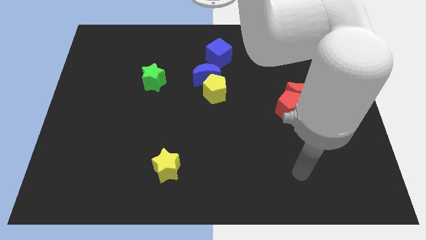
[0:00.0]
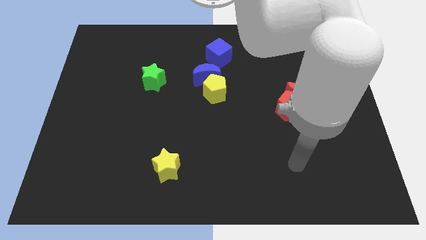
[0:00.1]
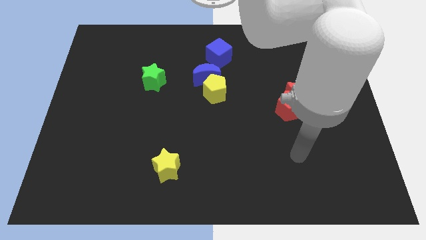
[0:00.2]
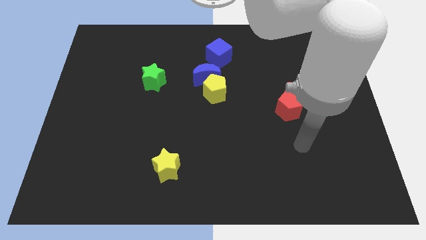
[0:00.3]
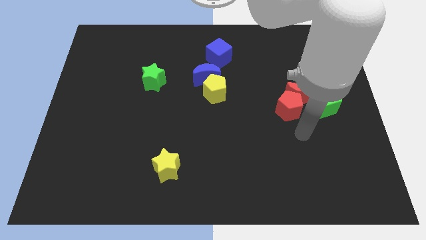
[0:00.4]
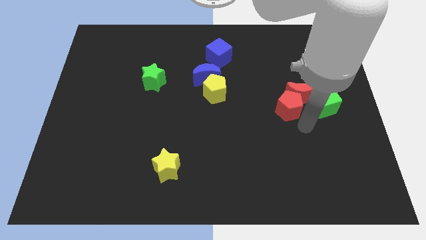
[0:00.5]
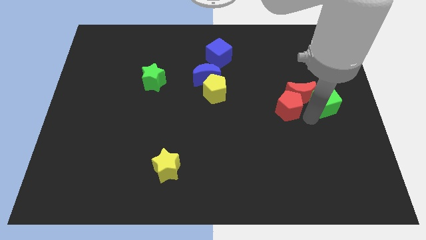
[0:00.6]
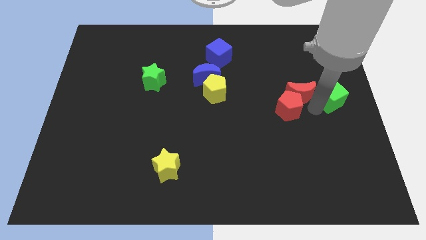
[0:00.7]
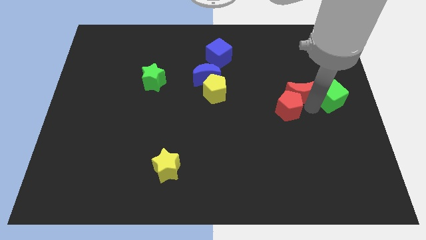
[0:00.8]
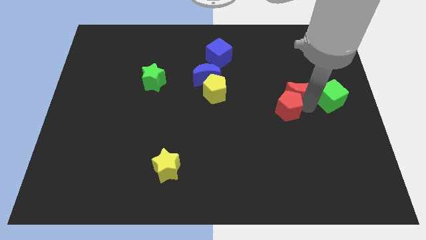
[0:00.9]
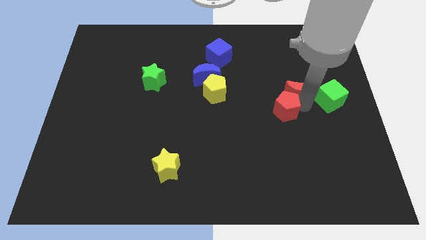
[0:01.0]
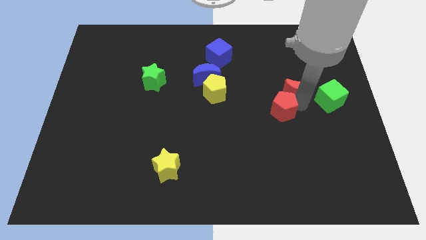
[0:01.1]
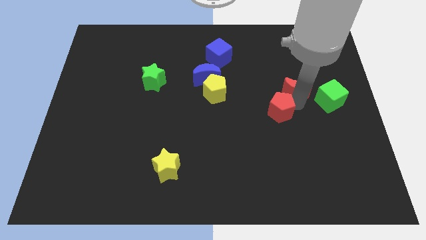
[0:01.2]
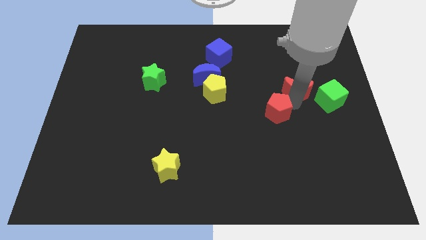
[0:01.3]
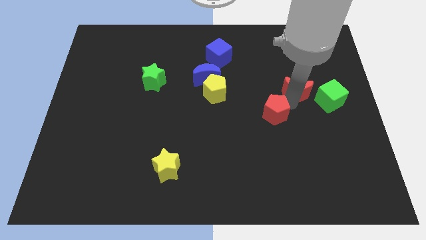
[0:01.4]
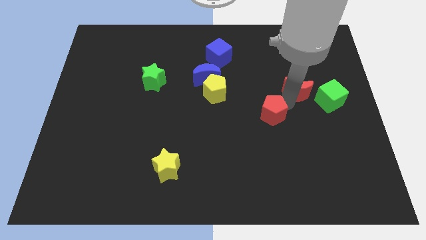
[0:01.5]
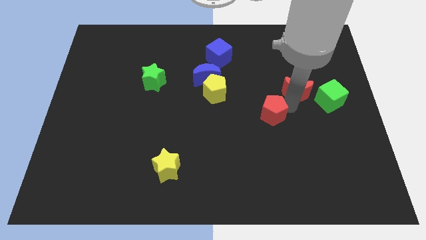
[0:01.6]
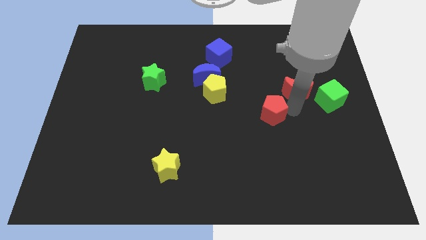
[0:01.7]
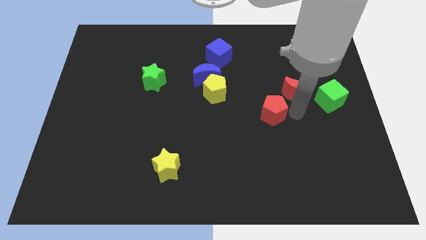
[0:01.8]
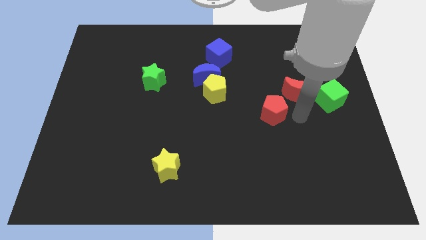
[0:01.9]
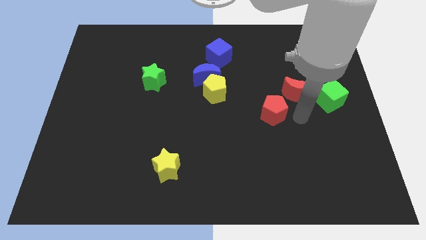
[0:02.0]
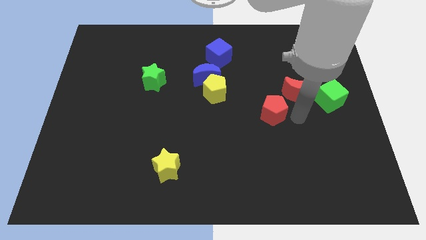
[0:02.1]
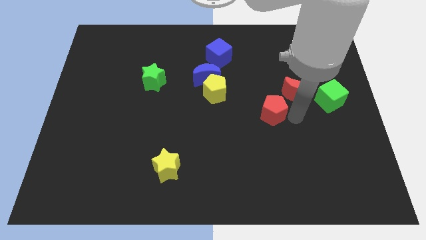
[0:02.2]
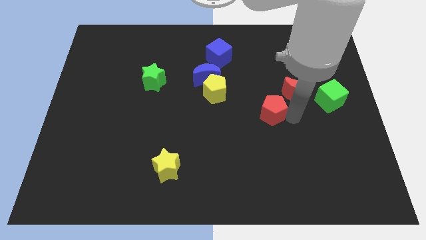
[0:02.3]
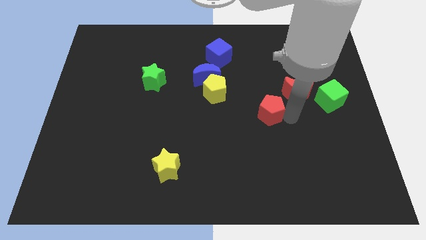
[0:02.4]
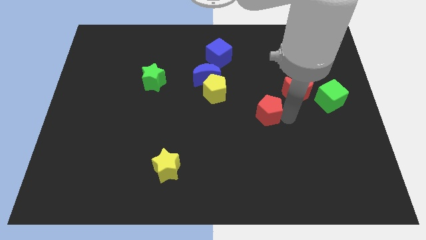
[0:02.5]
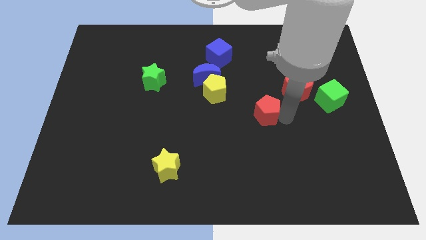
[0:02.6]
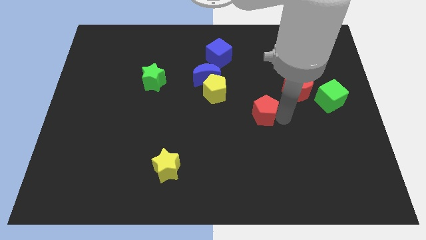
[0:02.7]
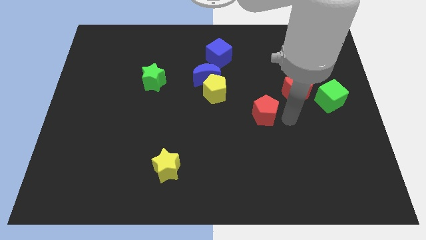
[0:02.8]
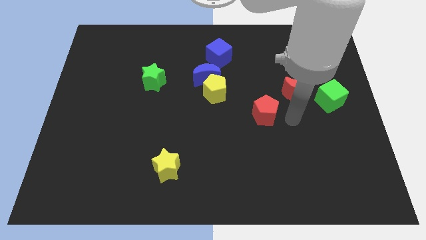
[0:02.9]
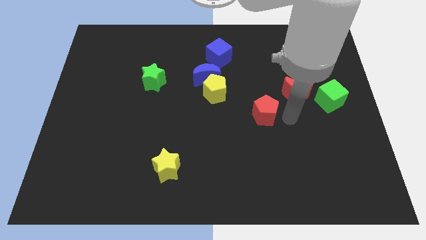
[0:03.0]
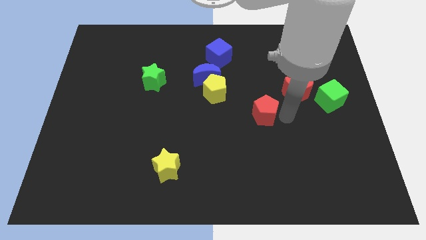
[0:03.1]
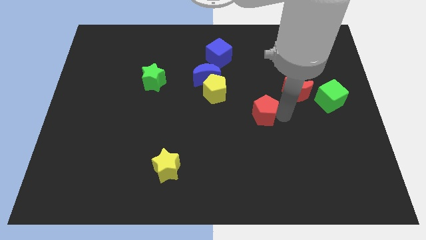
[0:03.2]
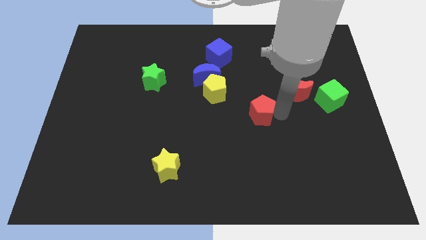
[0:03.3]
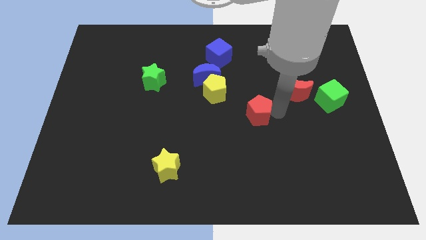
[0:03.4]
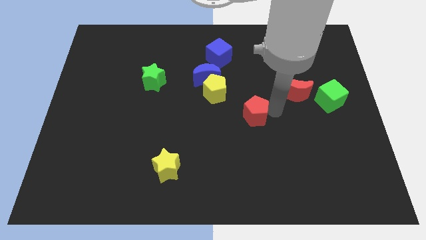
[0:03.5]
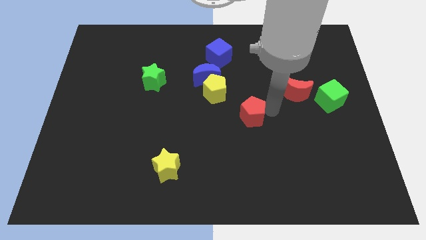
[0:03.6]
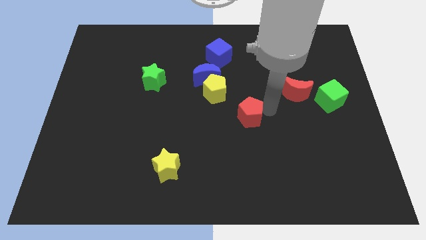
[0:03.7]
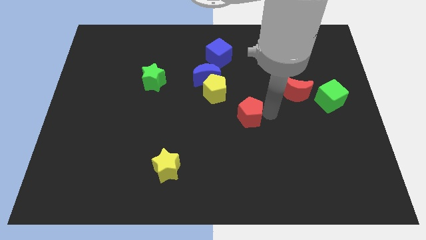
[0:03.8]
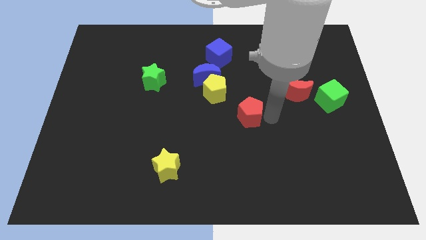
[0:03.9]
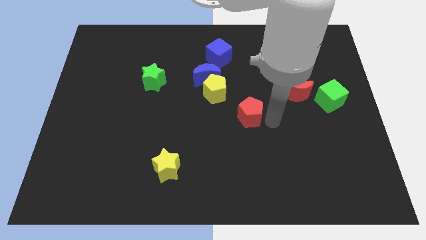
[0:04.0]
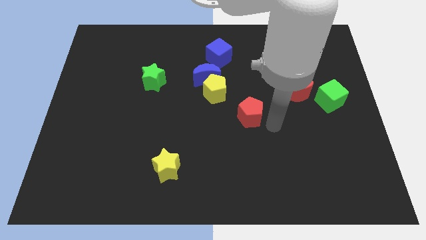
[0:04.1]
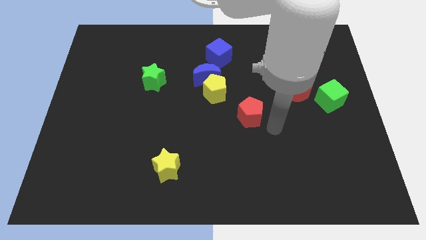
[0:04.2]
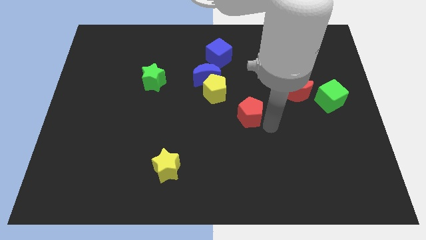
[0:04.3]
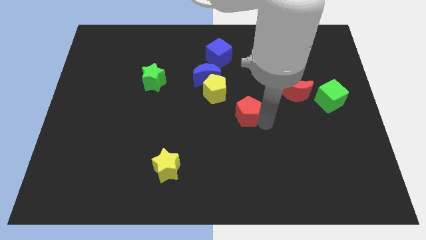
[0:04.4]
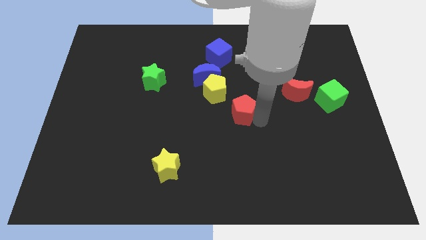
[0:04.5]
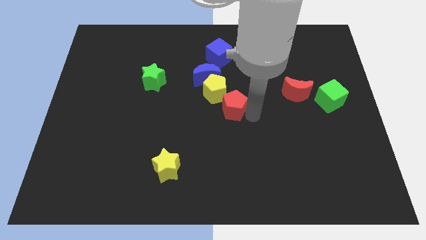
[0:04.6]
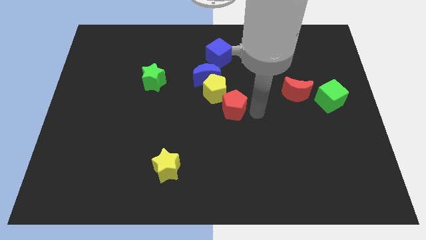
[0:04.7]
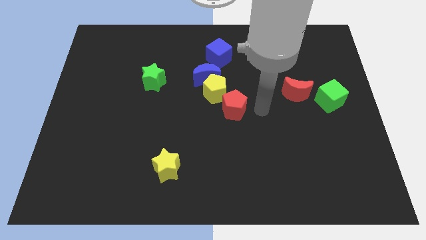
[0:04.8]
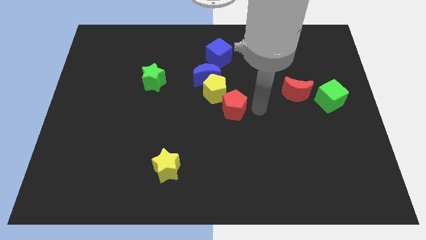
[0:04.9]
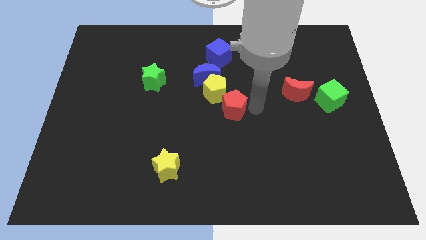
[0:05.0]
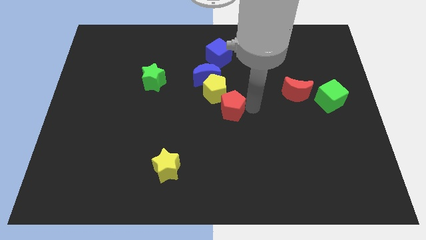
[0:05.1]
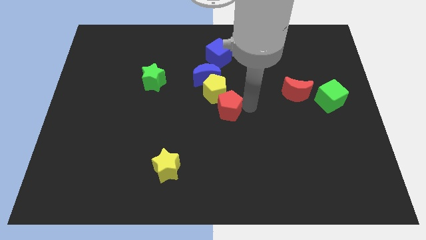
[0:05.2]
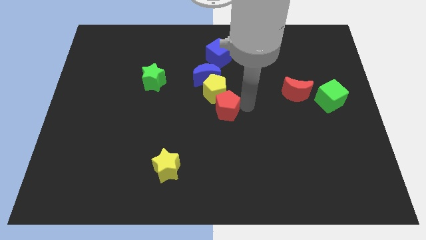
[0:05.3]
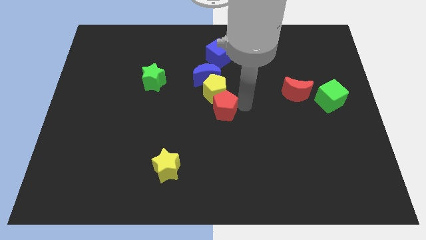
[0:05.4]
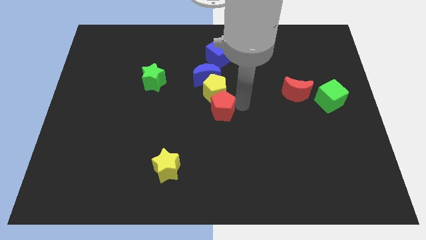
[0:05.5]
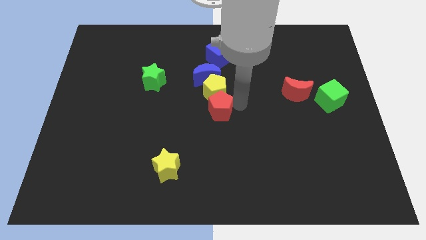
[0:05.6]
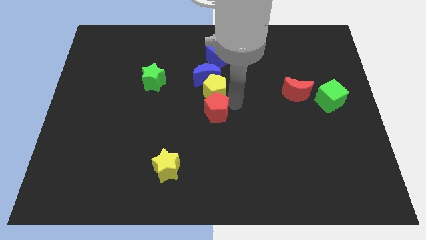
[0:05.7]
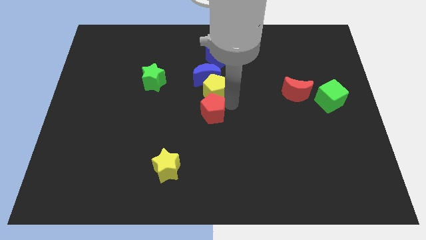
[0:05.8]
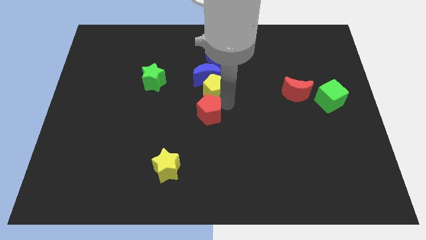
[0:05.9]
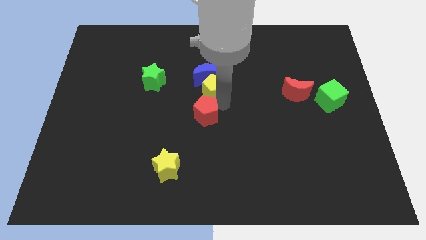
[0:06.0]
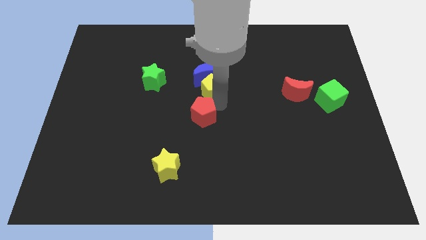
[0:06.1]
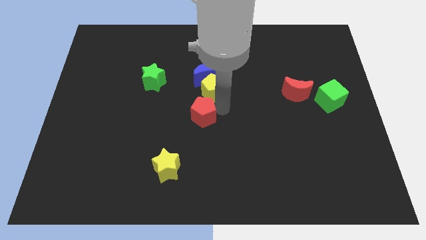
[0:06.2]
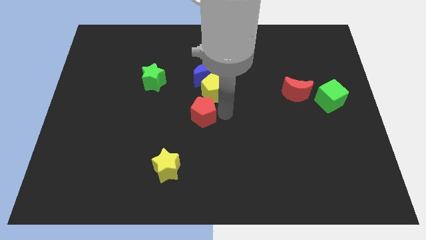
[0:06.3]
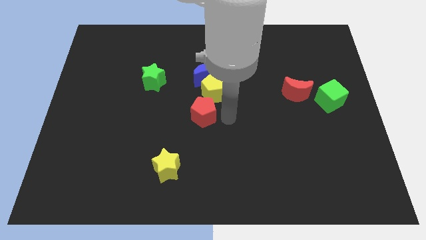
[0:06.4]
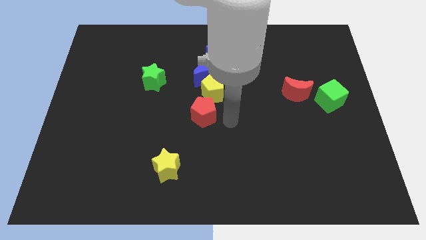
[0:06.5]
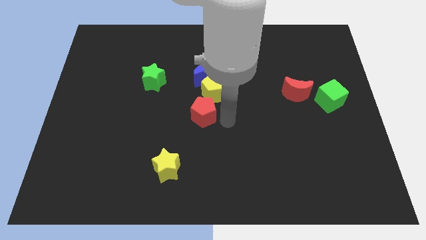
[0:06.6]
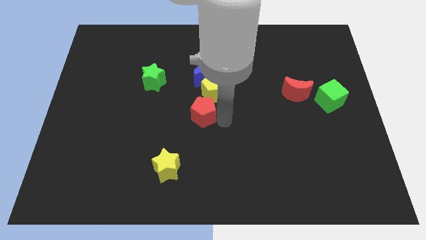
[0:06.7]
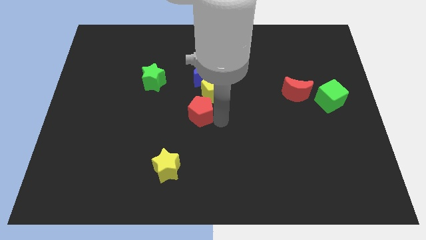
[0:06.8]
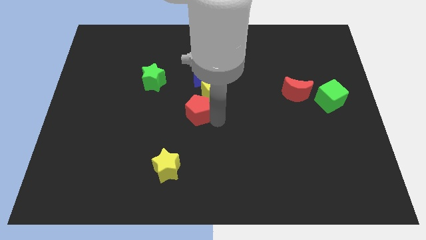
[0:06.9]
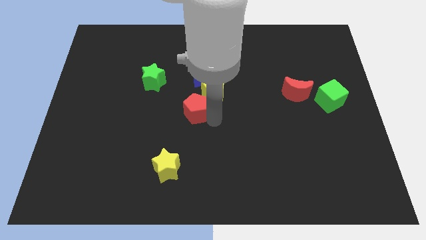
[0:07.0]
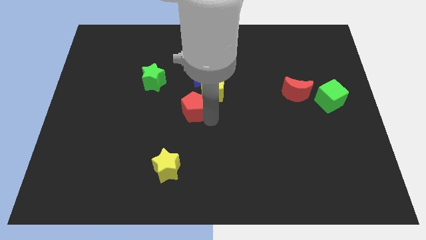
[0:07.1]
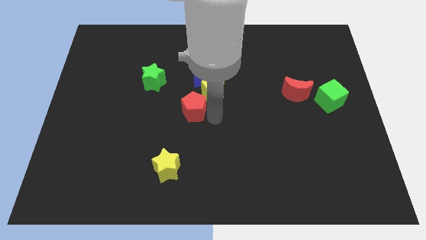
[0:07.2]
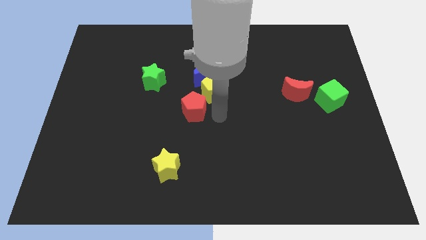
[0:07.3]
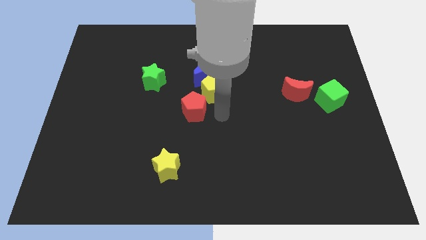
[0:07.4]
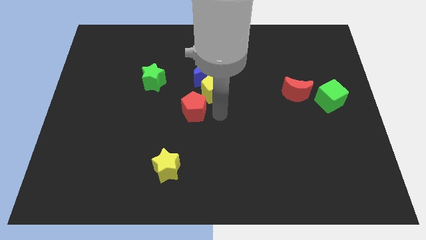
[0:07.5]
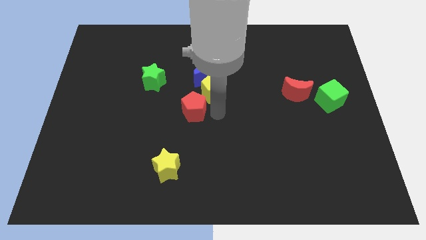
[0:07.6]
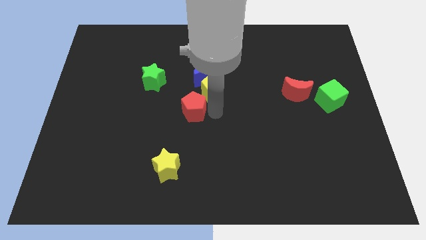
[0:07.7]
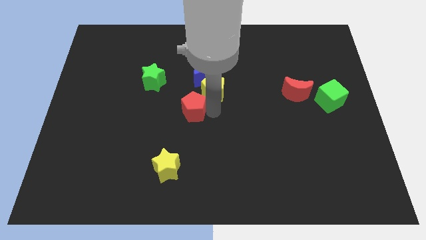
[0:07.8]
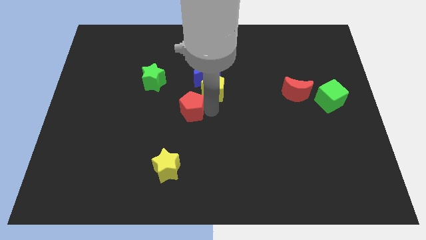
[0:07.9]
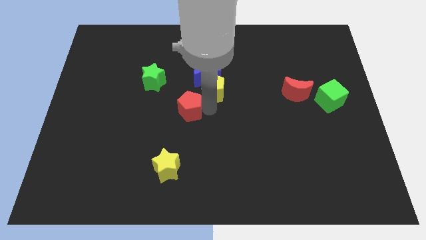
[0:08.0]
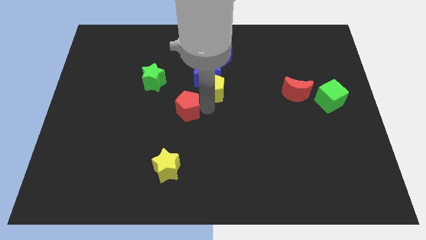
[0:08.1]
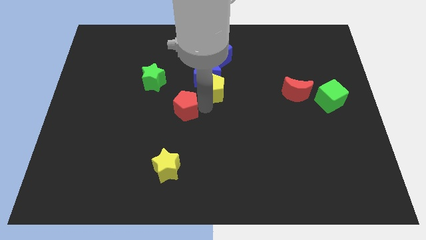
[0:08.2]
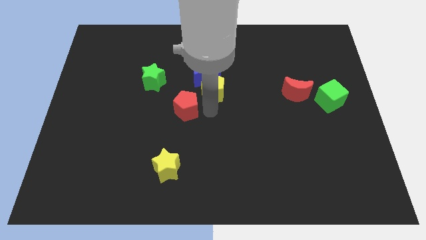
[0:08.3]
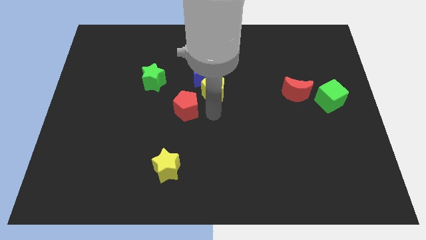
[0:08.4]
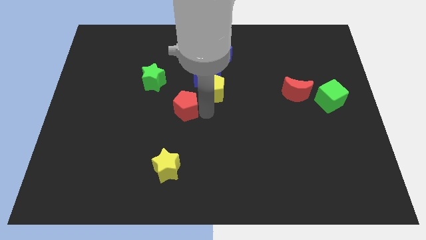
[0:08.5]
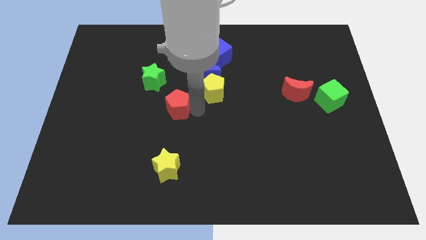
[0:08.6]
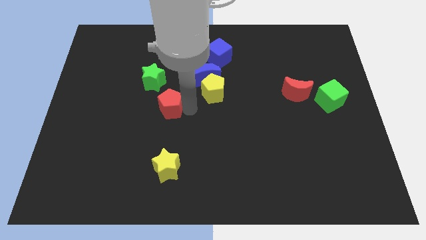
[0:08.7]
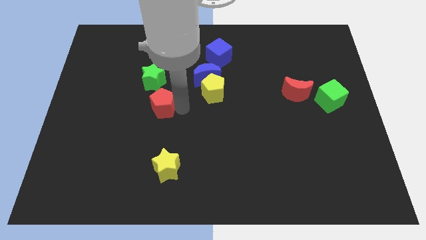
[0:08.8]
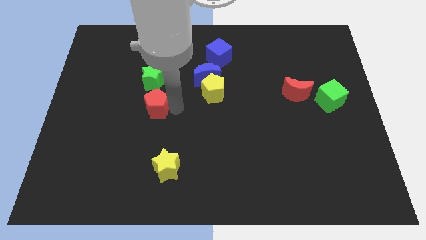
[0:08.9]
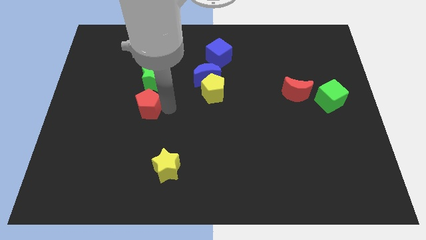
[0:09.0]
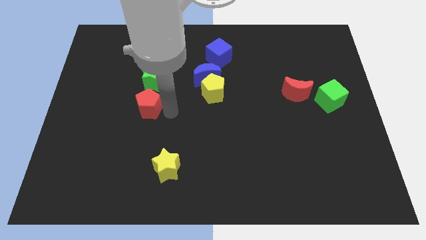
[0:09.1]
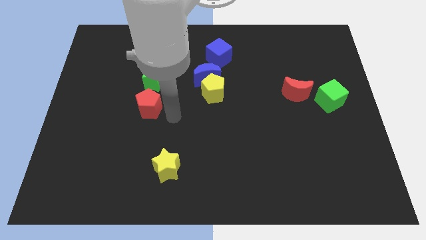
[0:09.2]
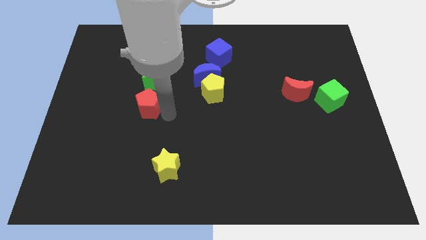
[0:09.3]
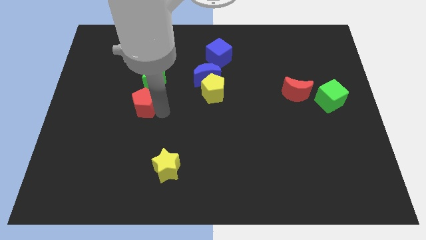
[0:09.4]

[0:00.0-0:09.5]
push the red pentagon diagonally down and to the left of the green star
